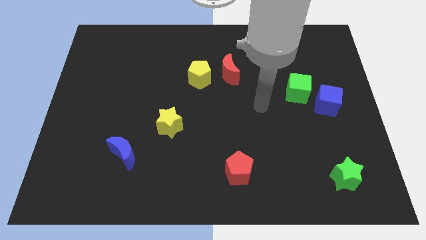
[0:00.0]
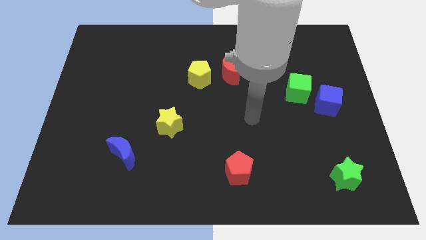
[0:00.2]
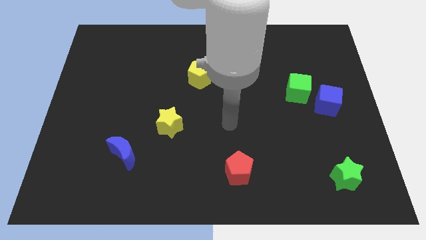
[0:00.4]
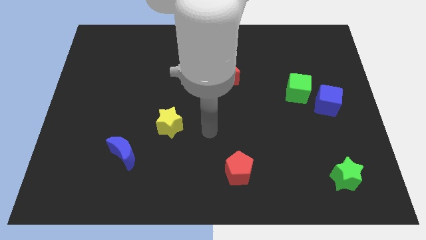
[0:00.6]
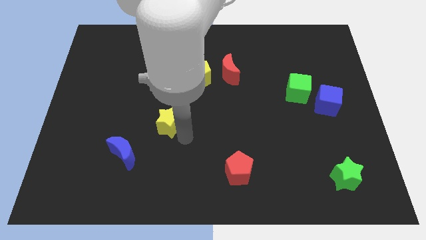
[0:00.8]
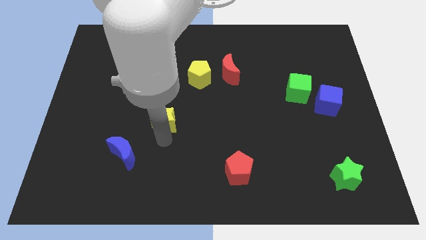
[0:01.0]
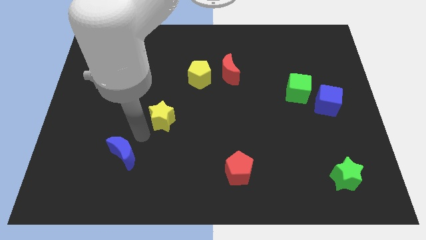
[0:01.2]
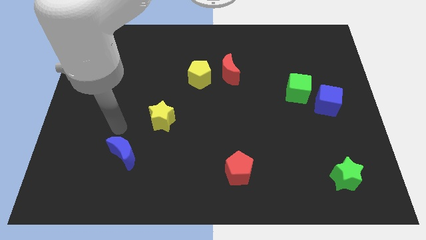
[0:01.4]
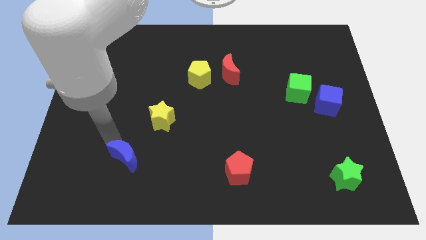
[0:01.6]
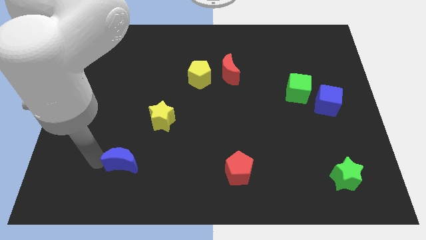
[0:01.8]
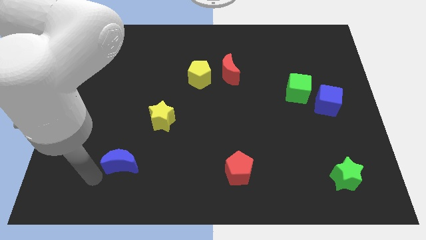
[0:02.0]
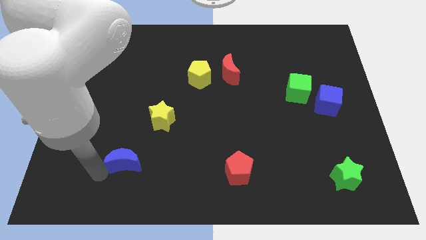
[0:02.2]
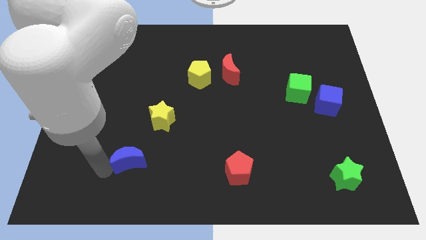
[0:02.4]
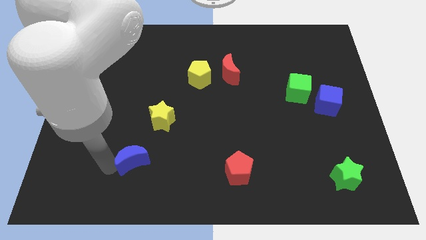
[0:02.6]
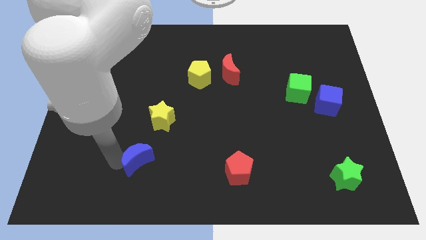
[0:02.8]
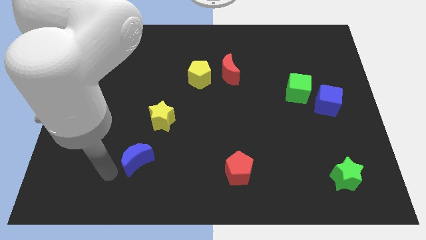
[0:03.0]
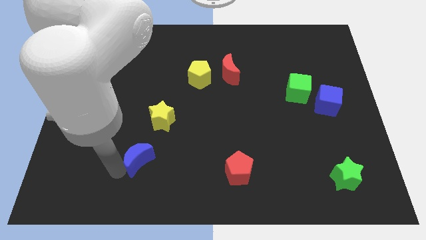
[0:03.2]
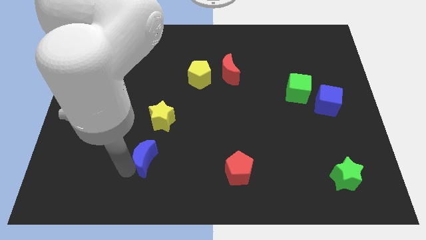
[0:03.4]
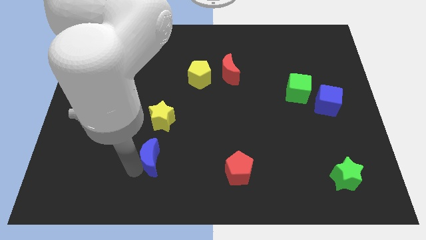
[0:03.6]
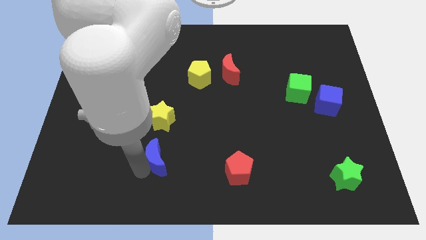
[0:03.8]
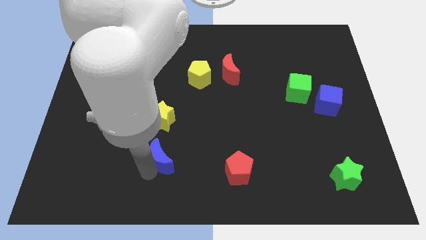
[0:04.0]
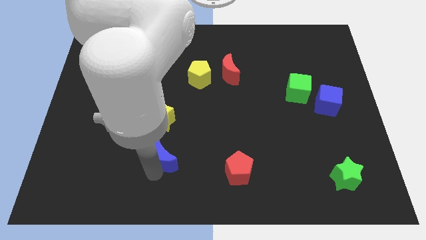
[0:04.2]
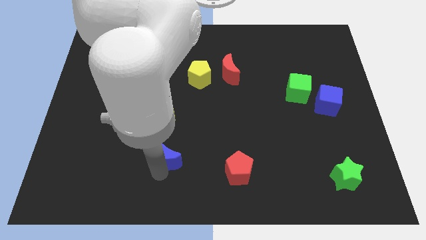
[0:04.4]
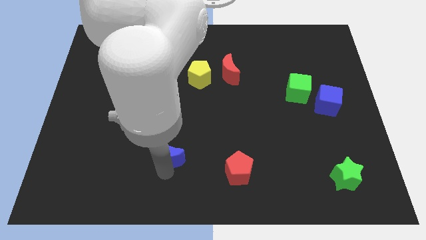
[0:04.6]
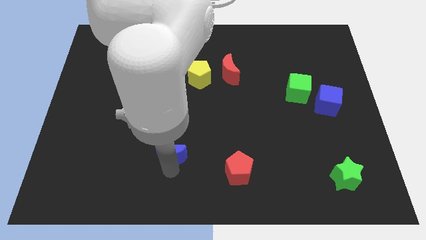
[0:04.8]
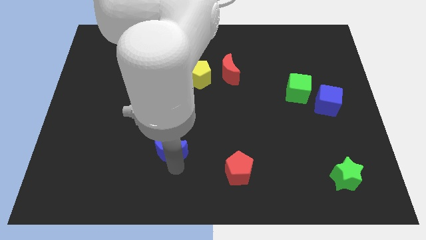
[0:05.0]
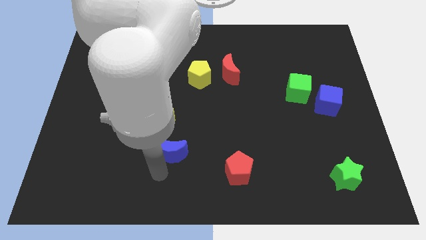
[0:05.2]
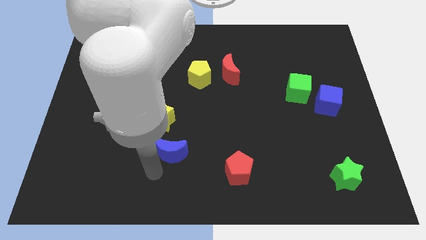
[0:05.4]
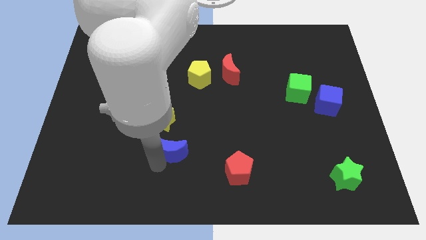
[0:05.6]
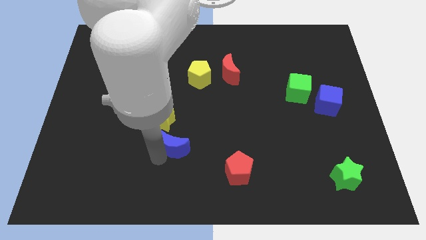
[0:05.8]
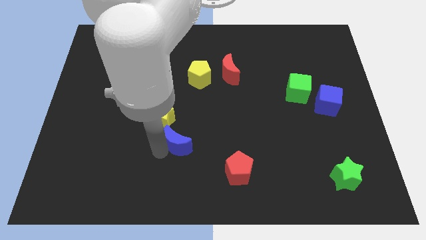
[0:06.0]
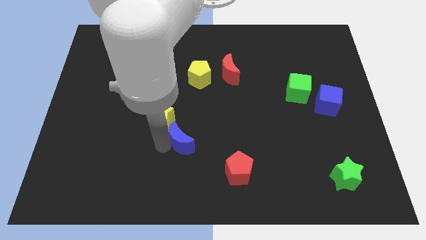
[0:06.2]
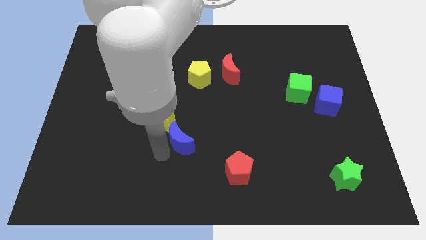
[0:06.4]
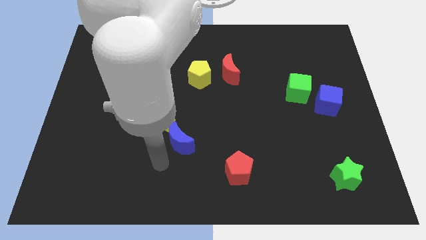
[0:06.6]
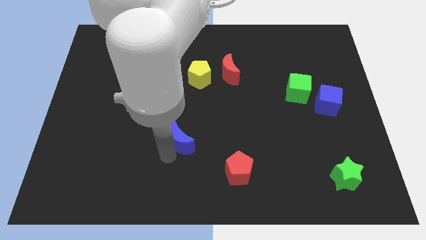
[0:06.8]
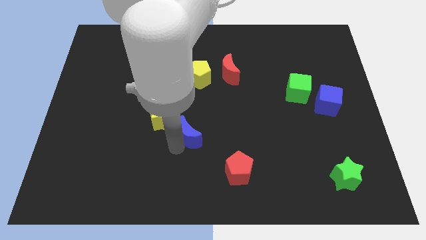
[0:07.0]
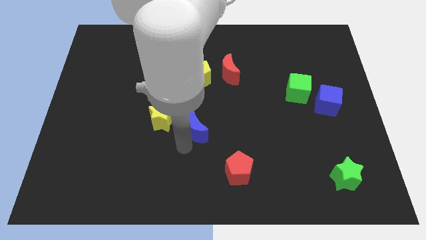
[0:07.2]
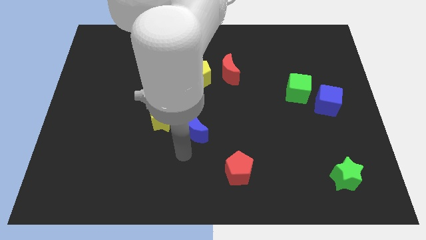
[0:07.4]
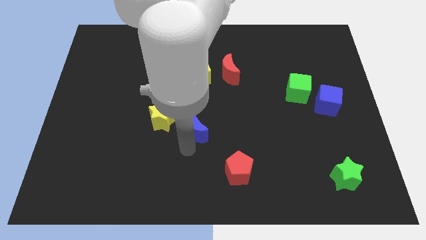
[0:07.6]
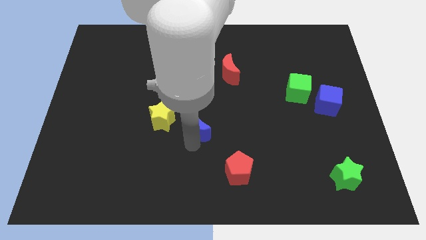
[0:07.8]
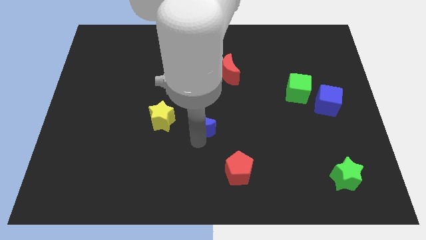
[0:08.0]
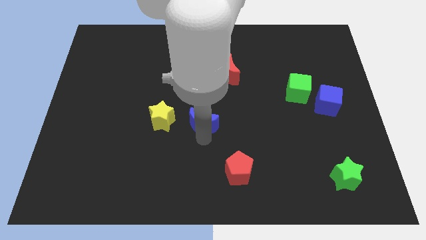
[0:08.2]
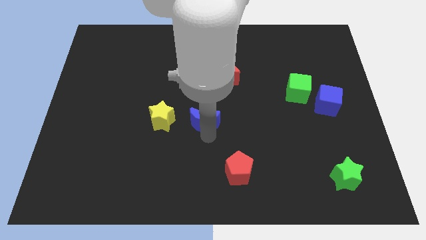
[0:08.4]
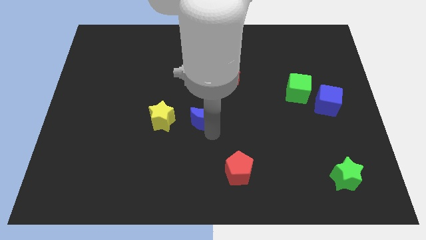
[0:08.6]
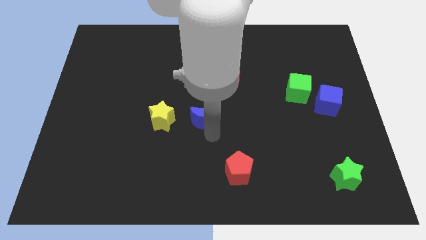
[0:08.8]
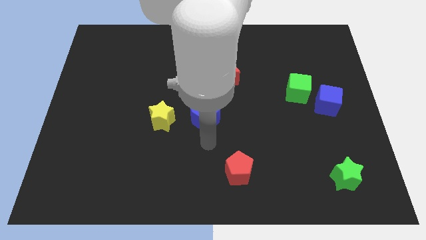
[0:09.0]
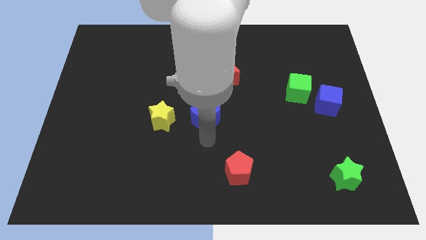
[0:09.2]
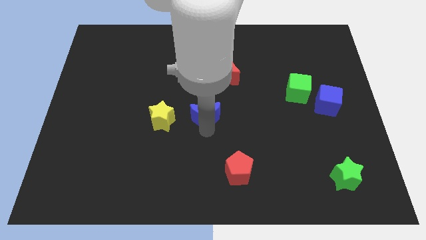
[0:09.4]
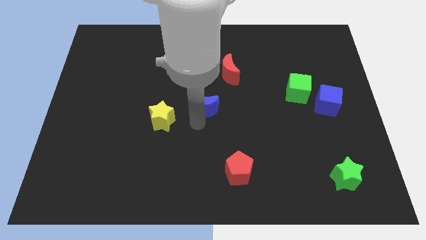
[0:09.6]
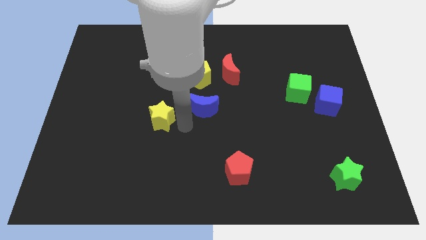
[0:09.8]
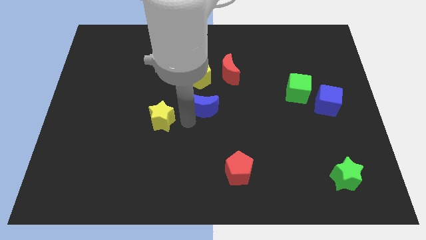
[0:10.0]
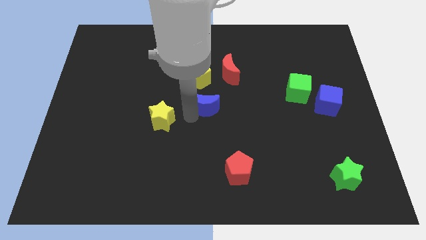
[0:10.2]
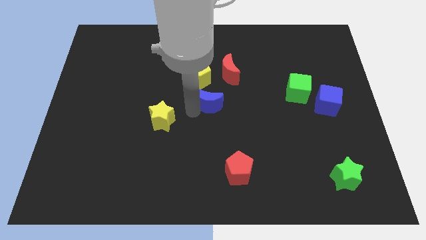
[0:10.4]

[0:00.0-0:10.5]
move the blue moon to the bottom right side of the yellow pentagon

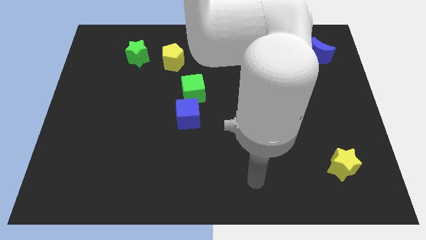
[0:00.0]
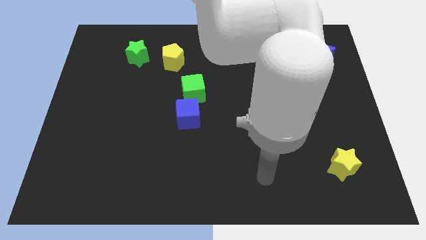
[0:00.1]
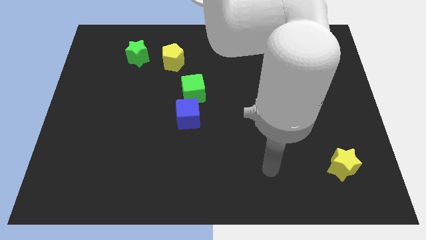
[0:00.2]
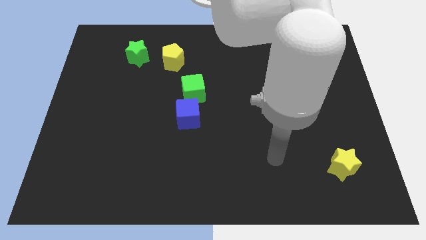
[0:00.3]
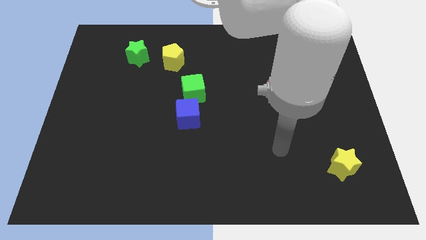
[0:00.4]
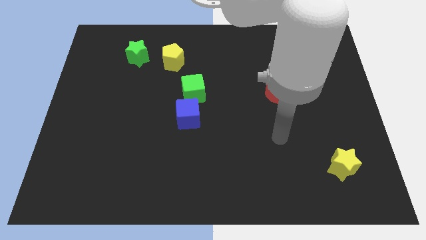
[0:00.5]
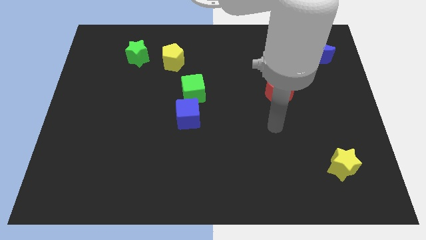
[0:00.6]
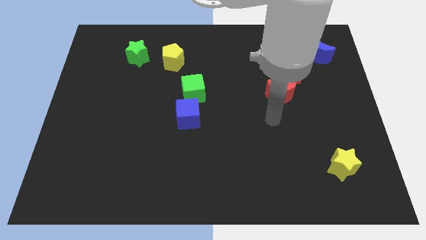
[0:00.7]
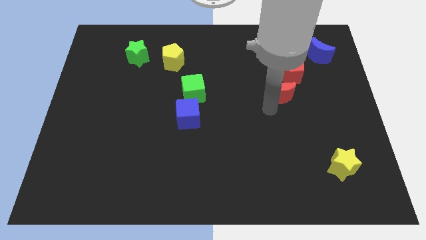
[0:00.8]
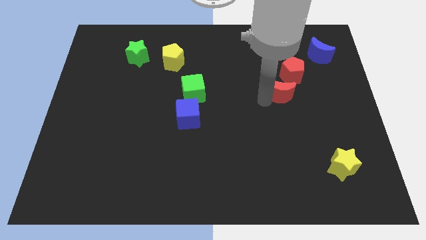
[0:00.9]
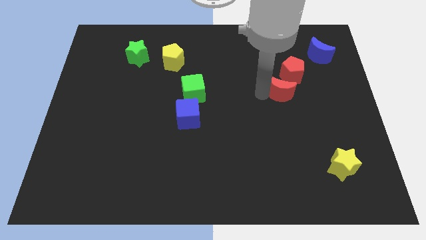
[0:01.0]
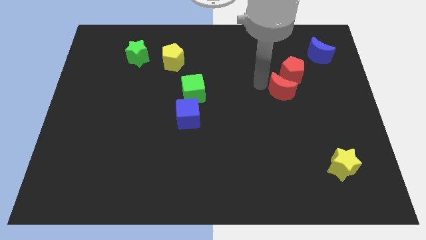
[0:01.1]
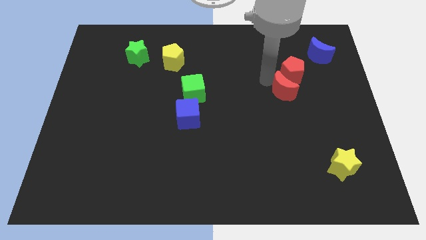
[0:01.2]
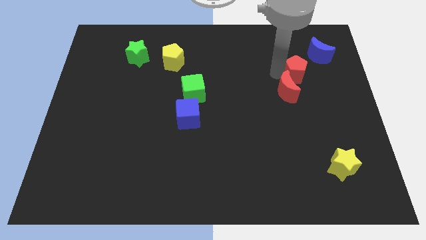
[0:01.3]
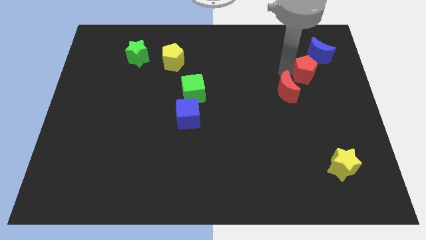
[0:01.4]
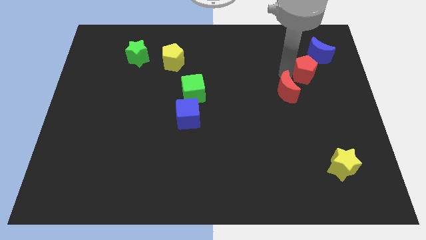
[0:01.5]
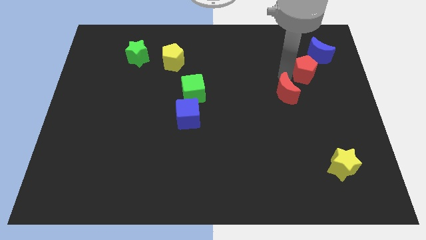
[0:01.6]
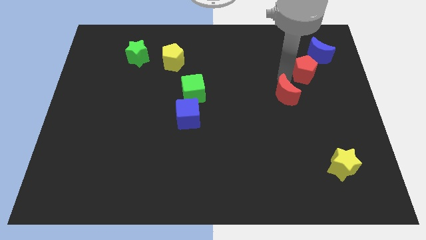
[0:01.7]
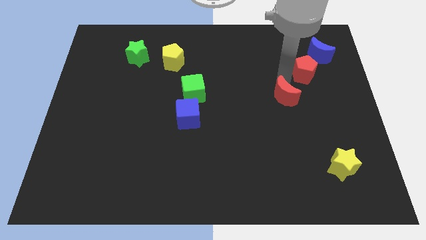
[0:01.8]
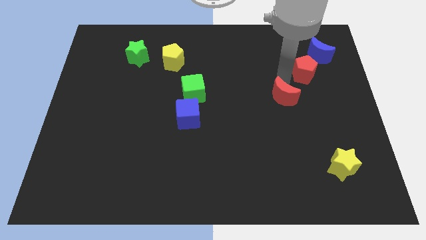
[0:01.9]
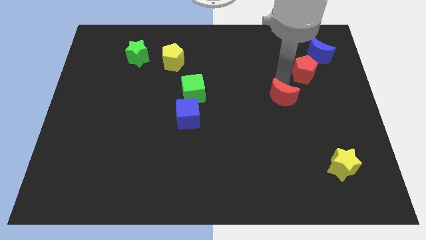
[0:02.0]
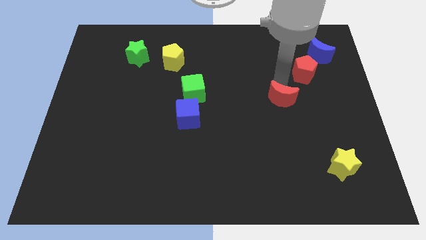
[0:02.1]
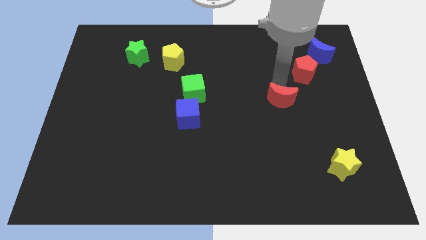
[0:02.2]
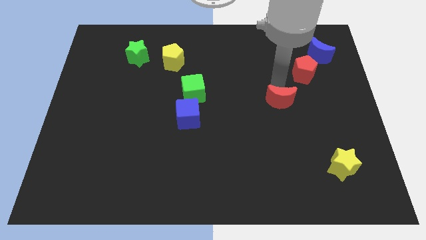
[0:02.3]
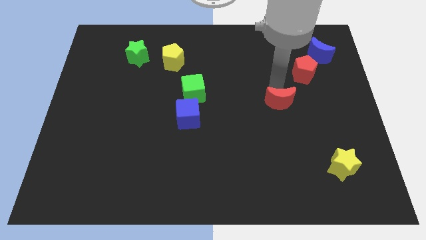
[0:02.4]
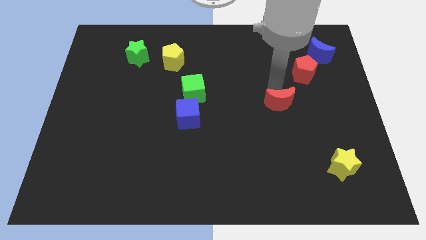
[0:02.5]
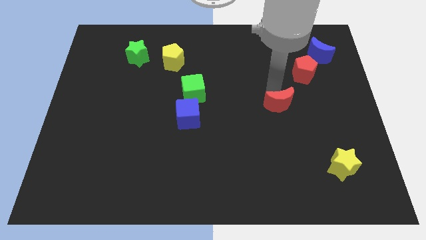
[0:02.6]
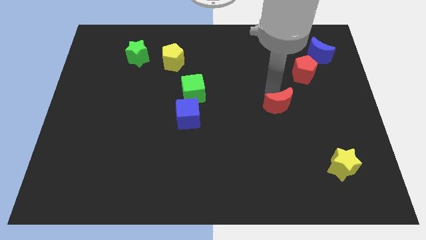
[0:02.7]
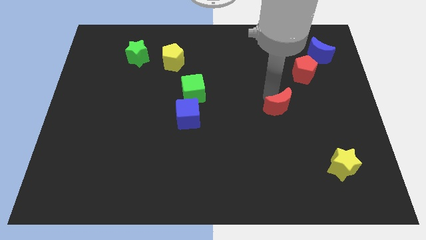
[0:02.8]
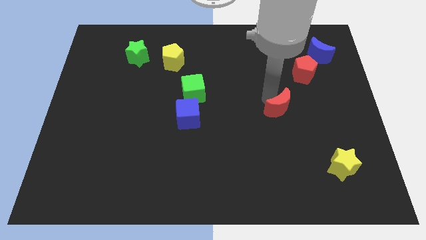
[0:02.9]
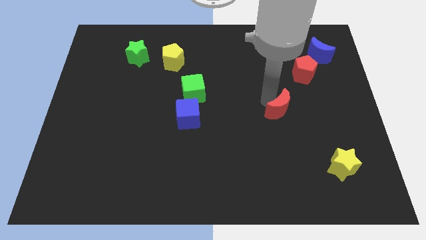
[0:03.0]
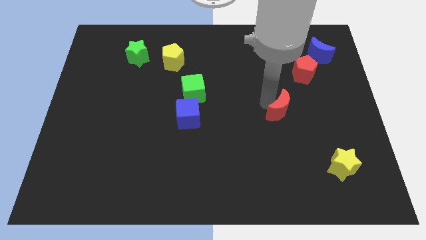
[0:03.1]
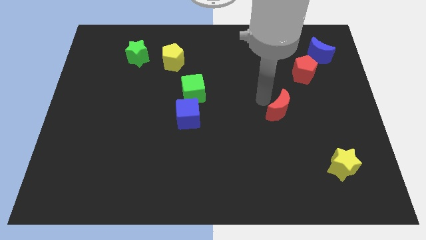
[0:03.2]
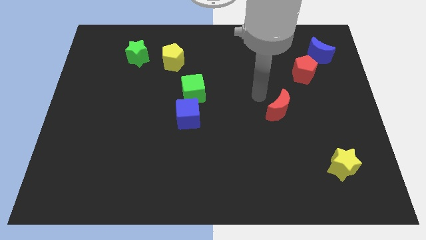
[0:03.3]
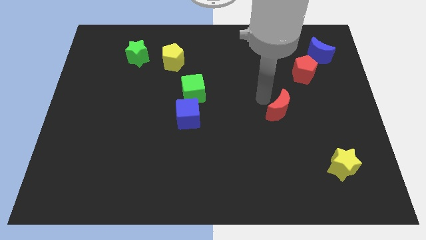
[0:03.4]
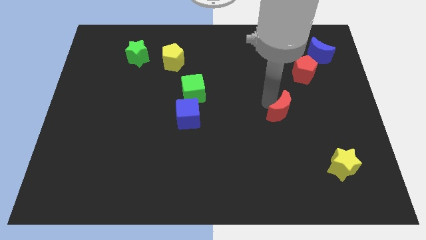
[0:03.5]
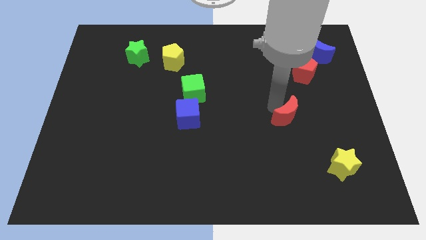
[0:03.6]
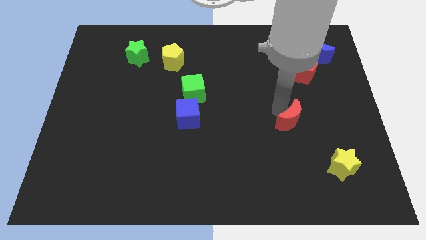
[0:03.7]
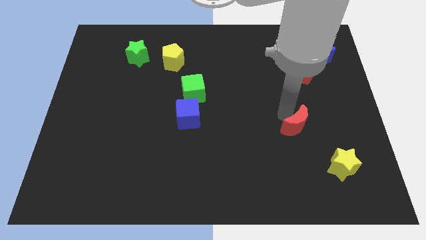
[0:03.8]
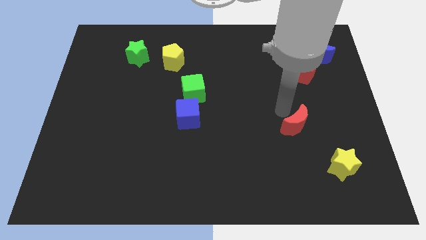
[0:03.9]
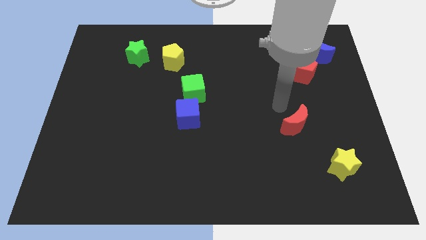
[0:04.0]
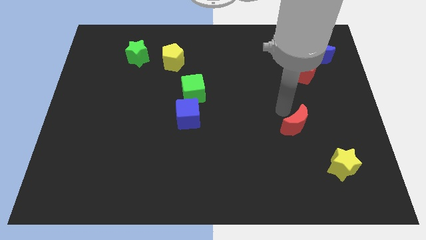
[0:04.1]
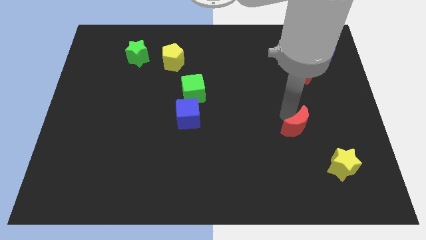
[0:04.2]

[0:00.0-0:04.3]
slide the red moon to the top left of the yellow star
